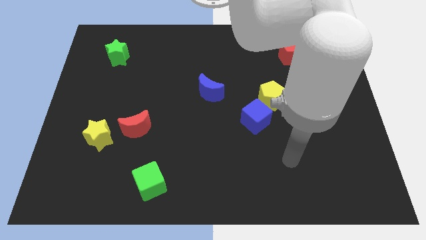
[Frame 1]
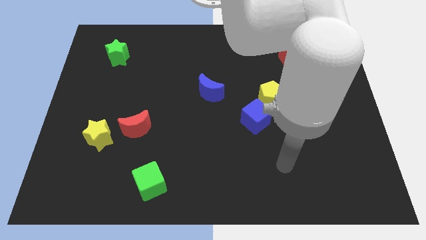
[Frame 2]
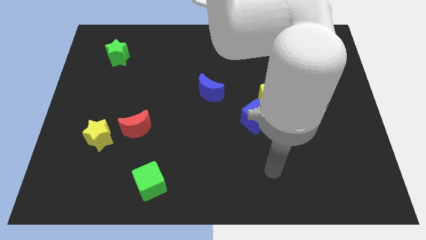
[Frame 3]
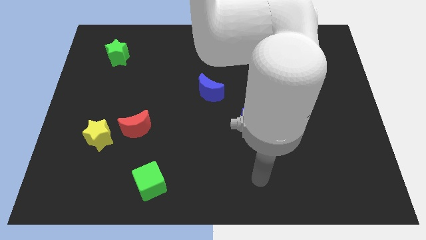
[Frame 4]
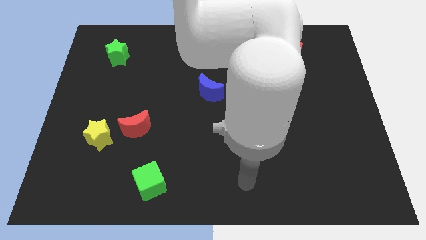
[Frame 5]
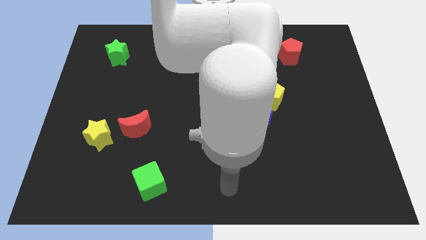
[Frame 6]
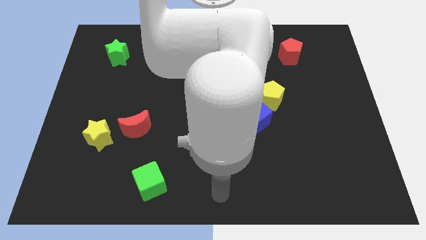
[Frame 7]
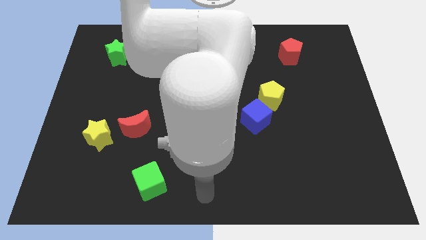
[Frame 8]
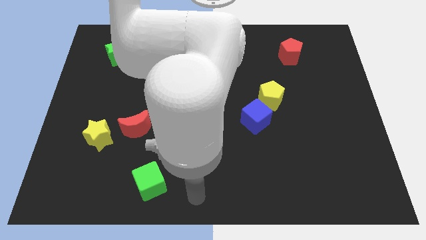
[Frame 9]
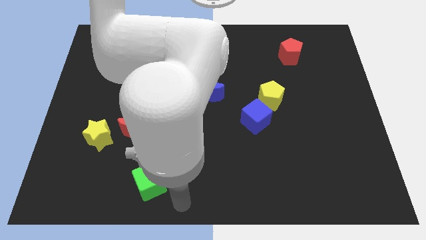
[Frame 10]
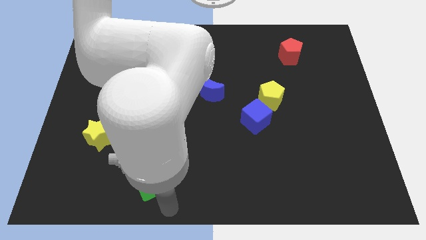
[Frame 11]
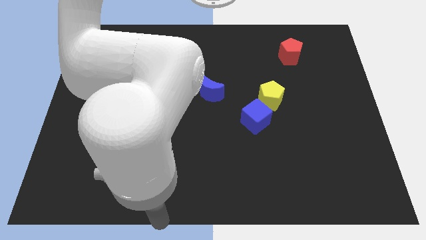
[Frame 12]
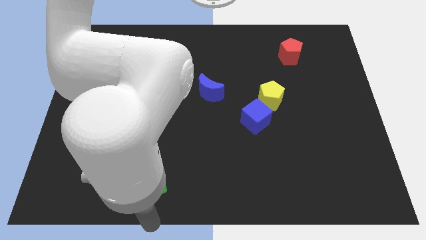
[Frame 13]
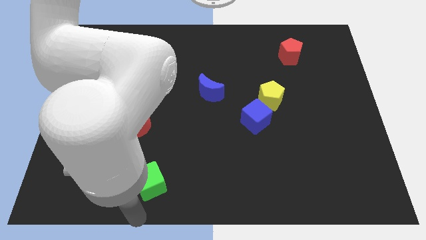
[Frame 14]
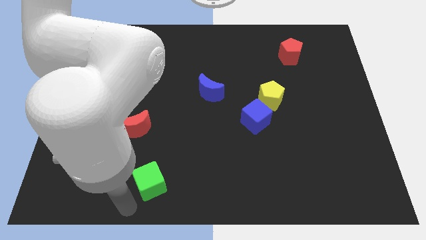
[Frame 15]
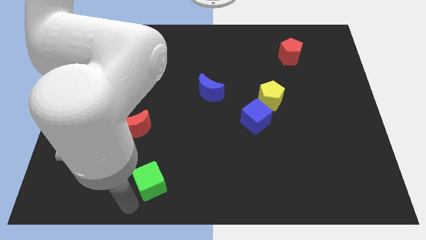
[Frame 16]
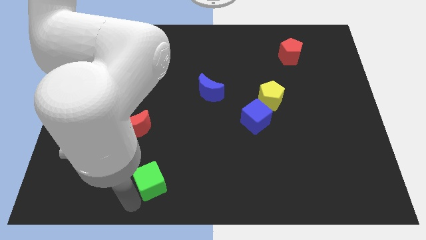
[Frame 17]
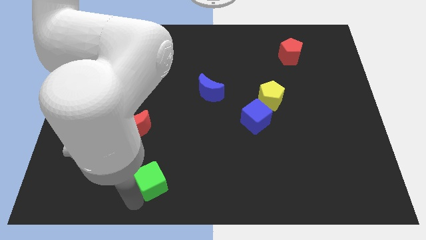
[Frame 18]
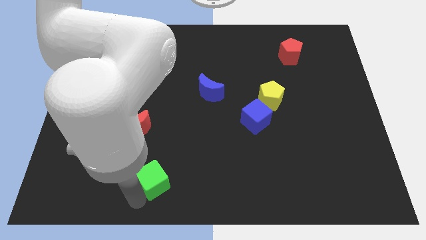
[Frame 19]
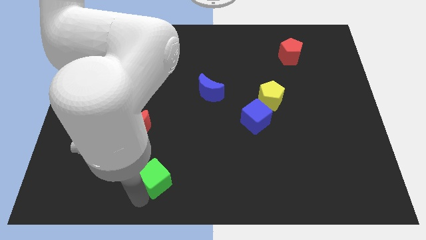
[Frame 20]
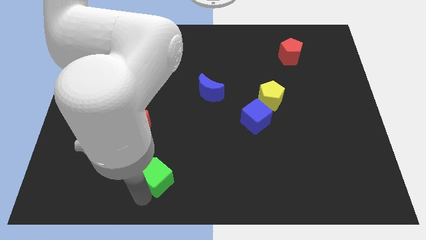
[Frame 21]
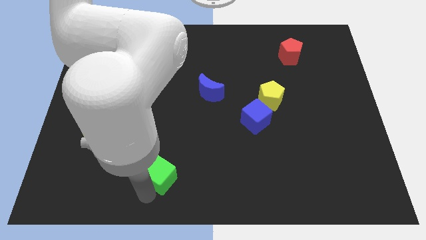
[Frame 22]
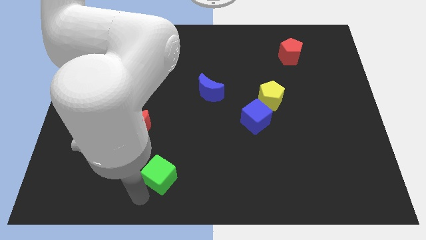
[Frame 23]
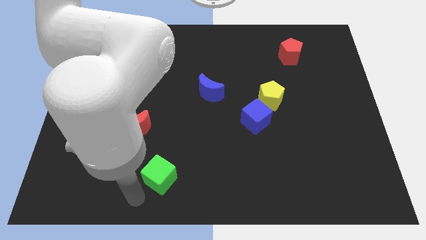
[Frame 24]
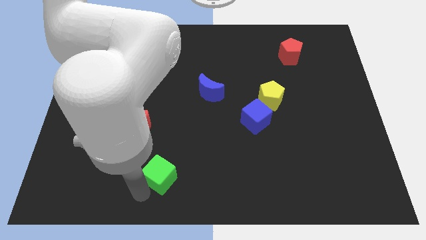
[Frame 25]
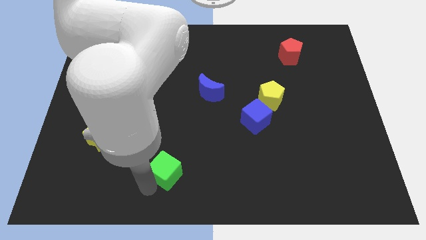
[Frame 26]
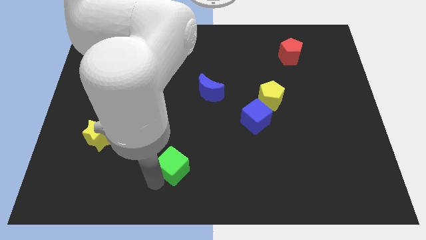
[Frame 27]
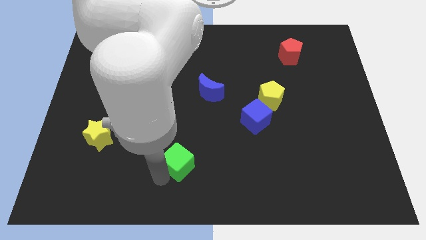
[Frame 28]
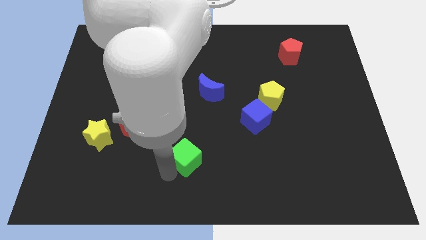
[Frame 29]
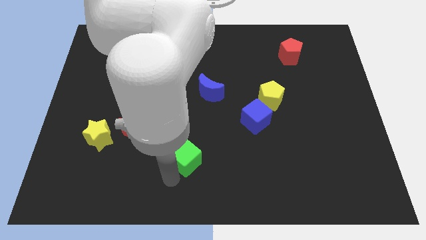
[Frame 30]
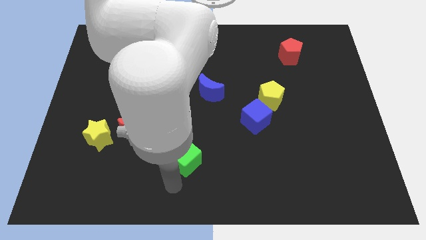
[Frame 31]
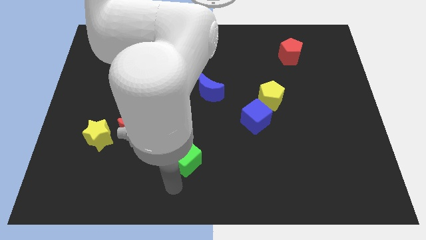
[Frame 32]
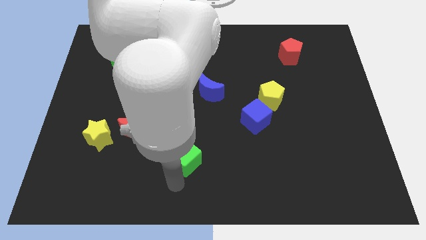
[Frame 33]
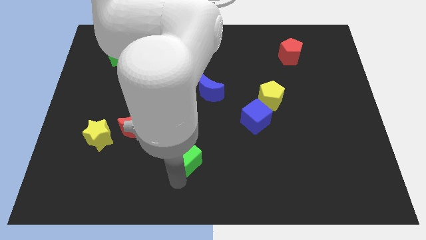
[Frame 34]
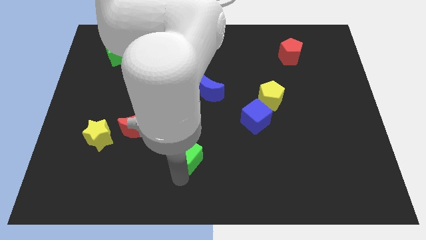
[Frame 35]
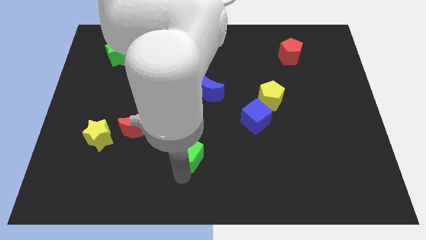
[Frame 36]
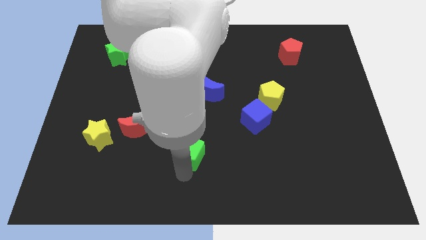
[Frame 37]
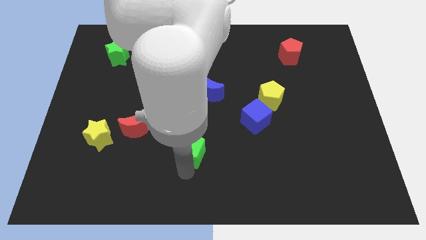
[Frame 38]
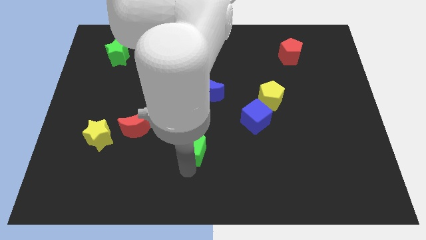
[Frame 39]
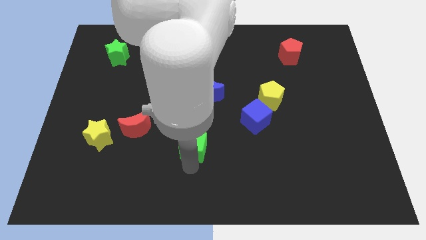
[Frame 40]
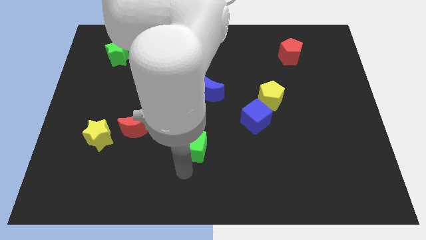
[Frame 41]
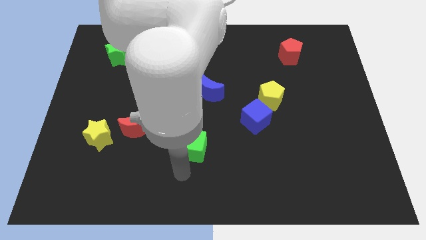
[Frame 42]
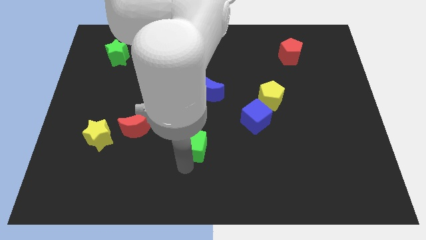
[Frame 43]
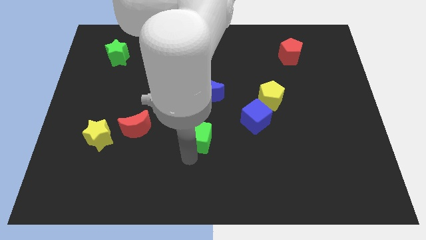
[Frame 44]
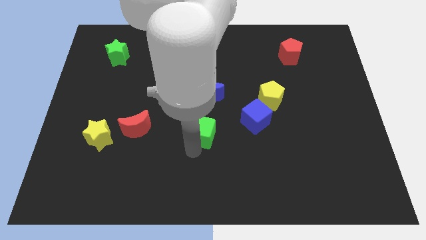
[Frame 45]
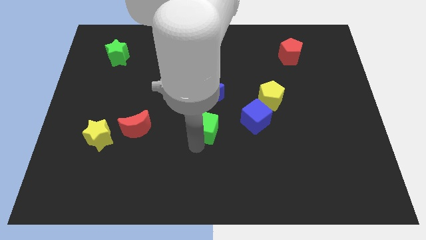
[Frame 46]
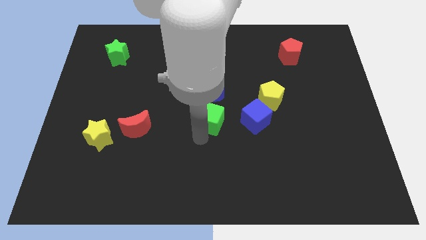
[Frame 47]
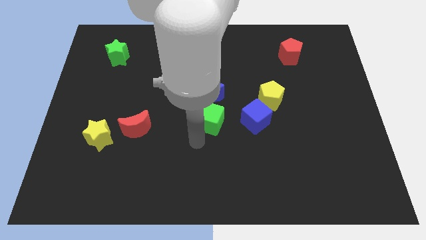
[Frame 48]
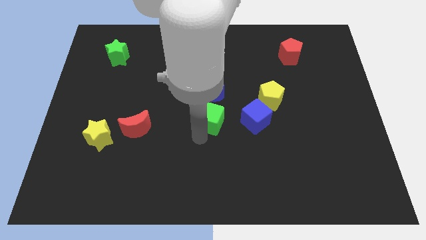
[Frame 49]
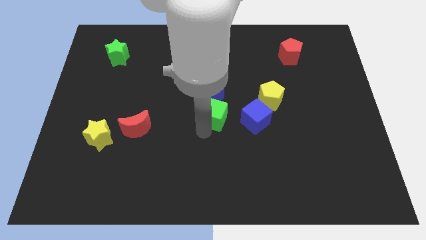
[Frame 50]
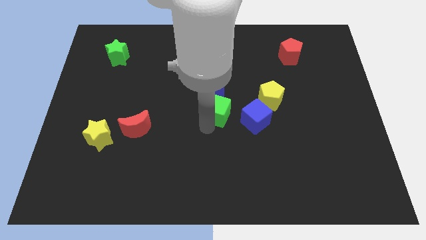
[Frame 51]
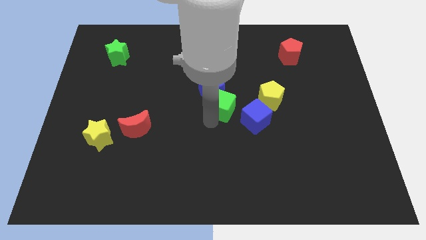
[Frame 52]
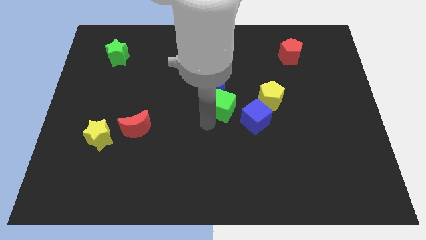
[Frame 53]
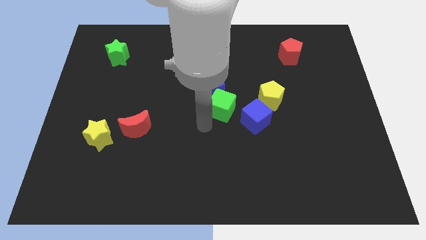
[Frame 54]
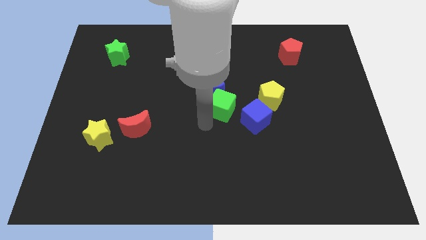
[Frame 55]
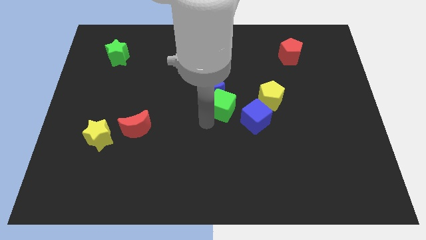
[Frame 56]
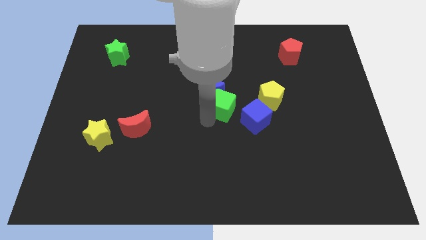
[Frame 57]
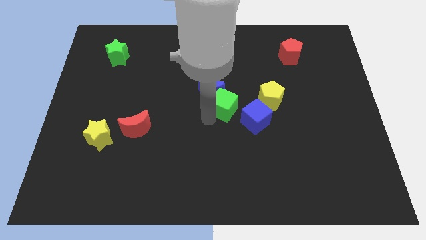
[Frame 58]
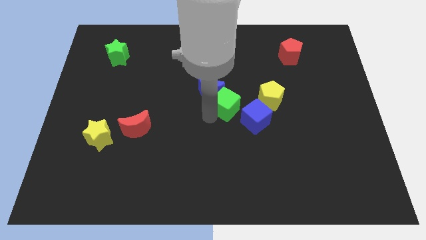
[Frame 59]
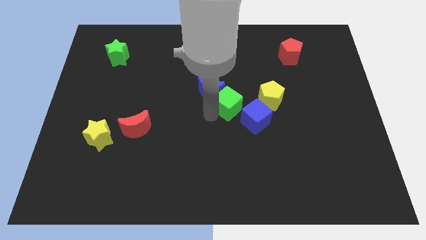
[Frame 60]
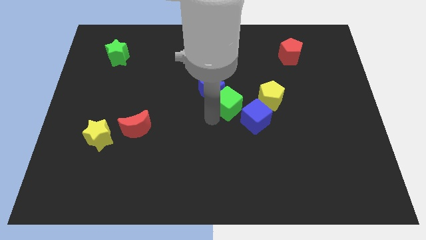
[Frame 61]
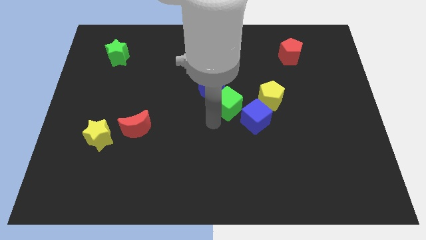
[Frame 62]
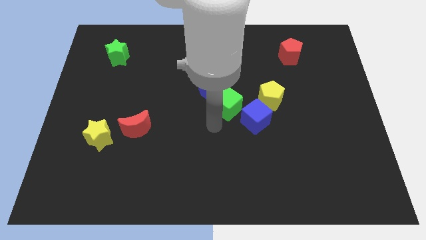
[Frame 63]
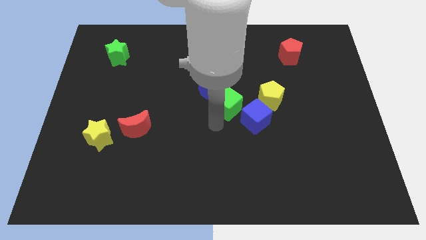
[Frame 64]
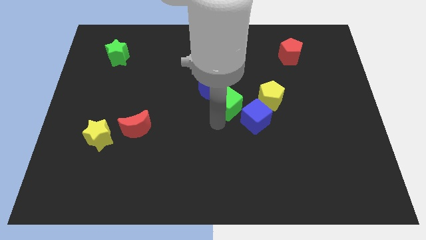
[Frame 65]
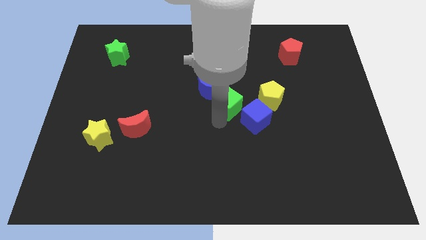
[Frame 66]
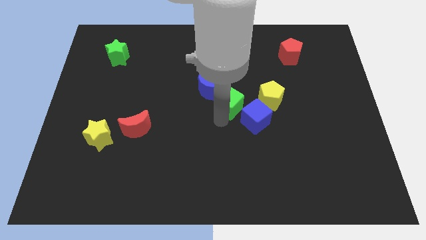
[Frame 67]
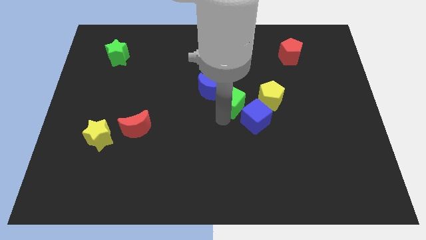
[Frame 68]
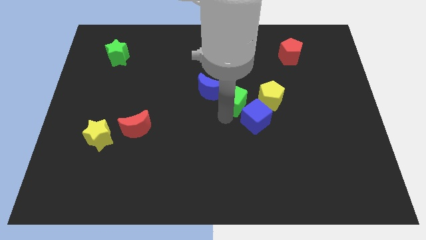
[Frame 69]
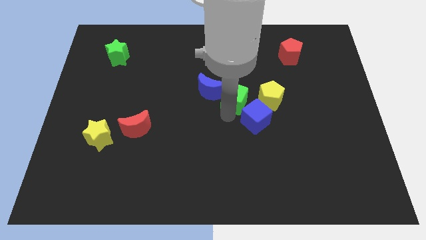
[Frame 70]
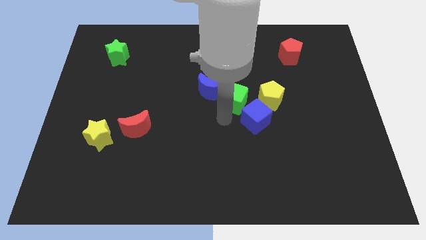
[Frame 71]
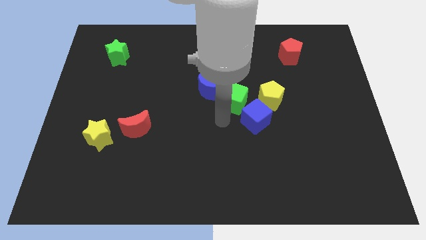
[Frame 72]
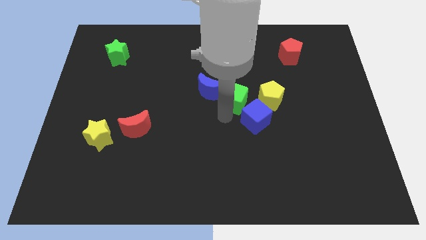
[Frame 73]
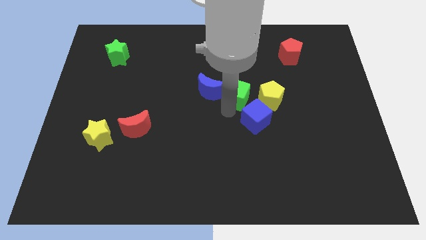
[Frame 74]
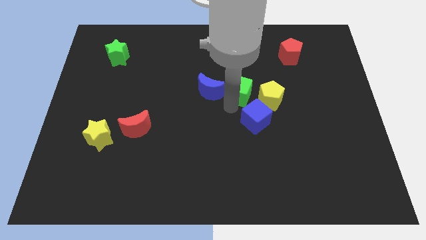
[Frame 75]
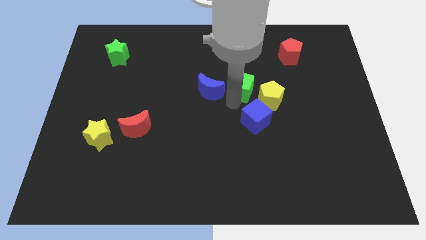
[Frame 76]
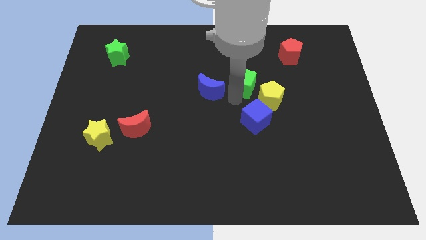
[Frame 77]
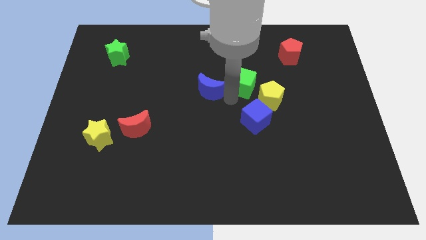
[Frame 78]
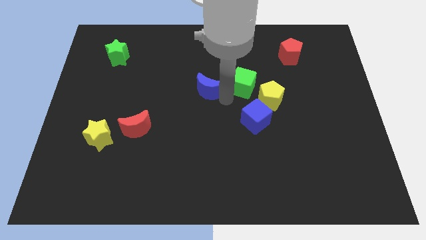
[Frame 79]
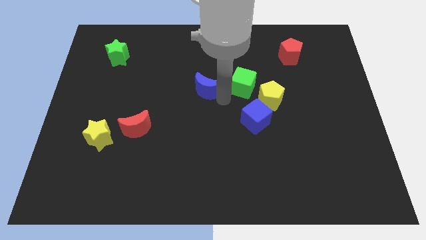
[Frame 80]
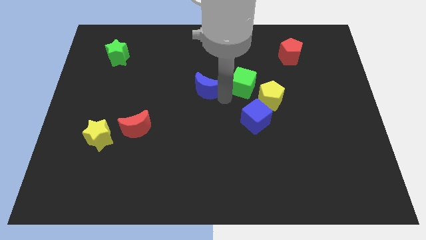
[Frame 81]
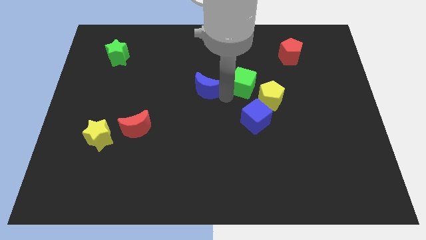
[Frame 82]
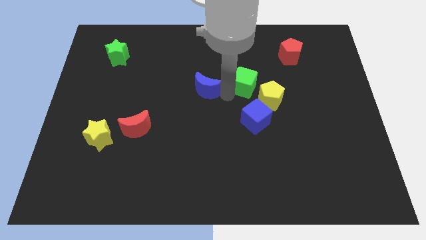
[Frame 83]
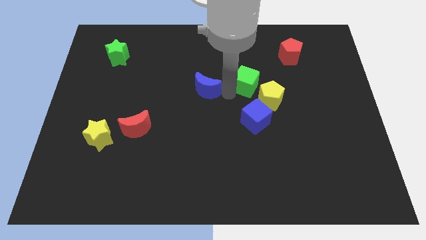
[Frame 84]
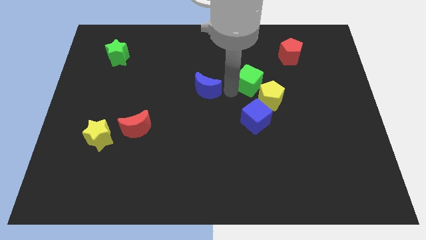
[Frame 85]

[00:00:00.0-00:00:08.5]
slide the green cube above the yellow pentagon
